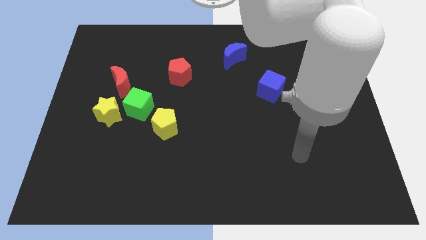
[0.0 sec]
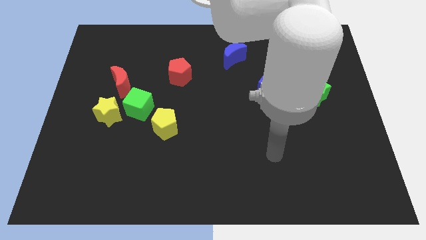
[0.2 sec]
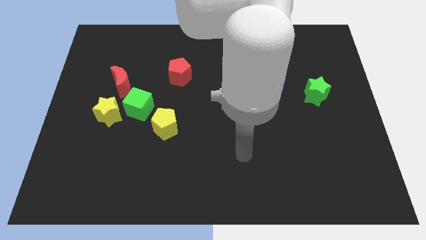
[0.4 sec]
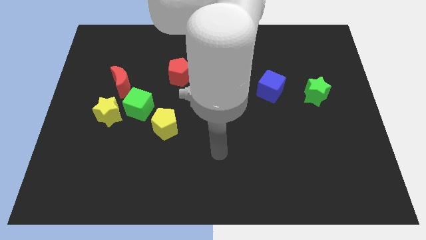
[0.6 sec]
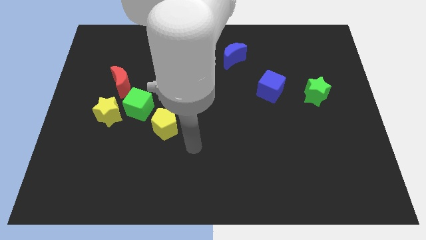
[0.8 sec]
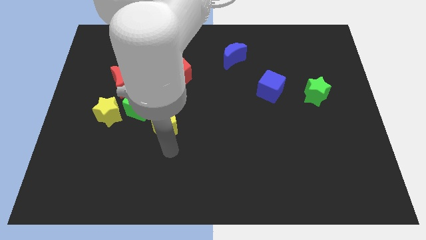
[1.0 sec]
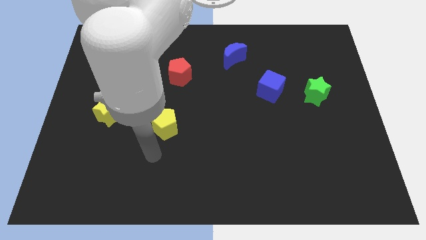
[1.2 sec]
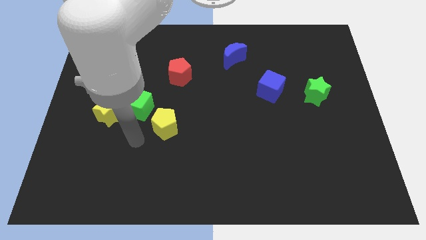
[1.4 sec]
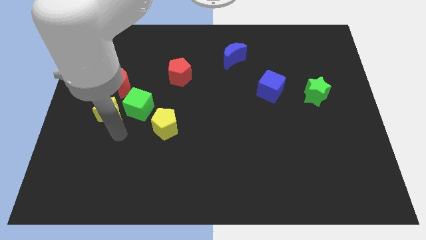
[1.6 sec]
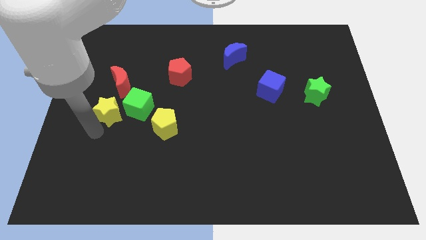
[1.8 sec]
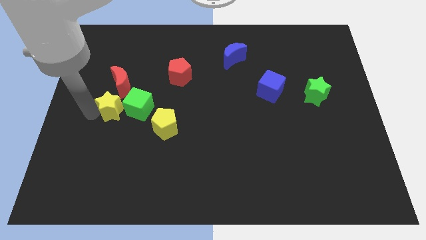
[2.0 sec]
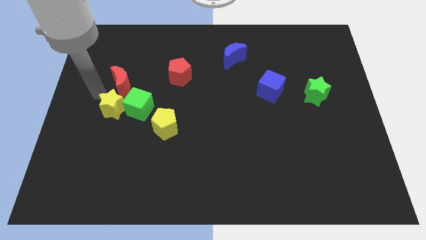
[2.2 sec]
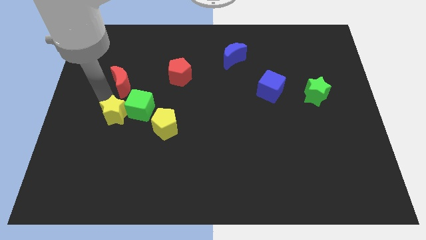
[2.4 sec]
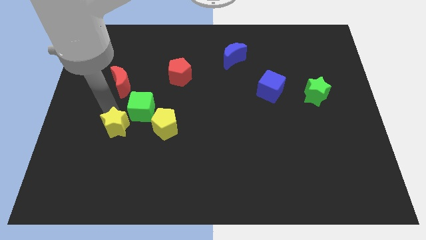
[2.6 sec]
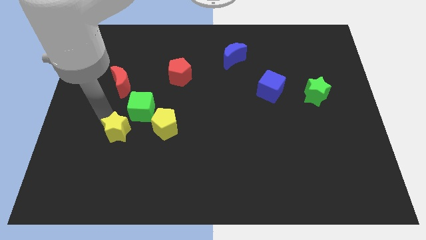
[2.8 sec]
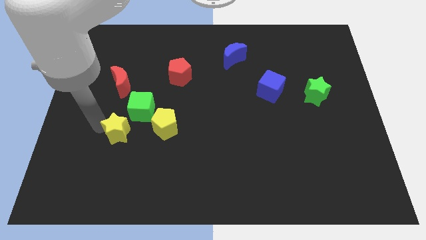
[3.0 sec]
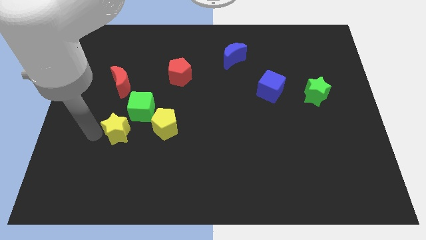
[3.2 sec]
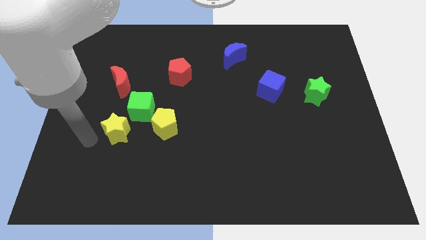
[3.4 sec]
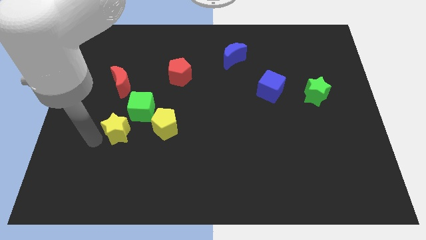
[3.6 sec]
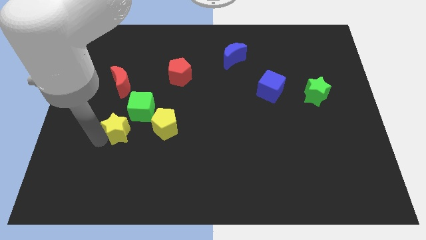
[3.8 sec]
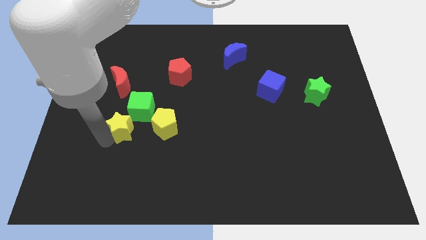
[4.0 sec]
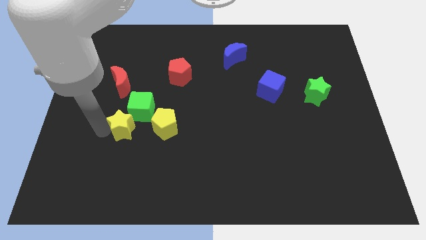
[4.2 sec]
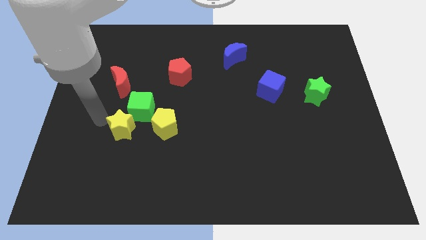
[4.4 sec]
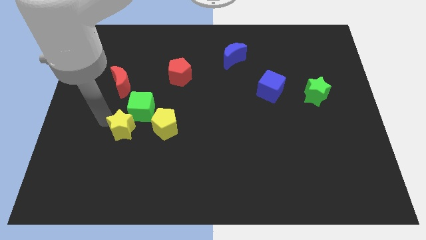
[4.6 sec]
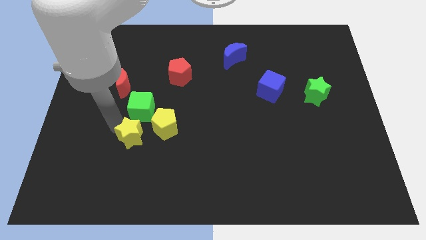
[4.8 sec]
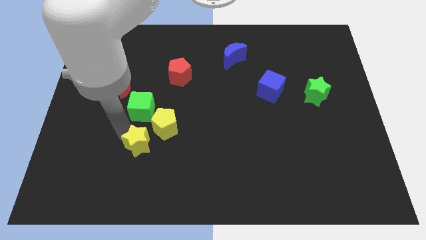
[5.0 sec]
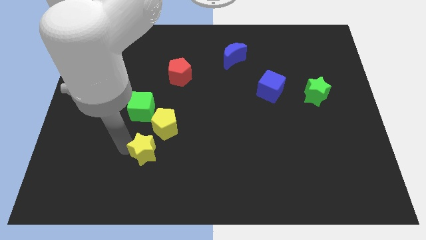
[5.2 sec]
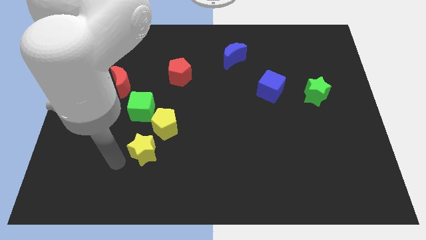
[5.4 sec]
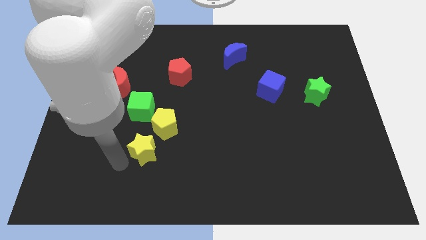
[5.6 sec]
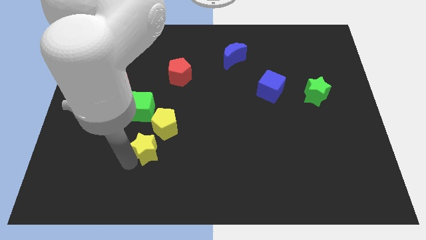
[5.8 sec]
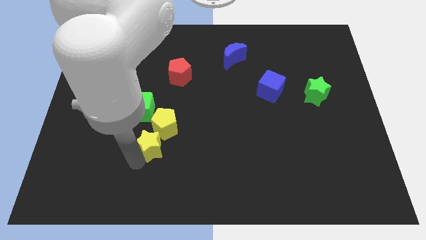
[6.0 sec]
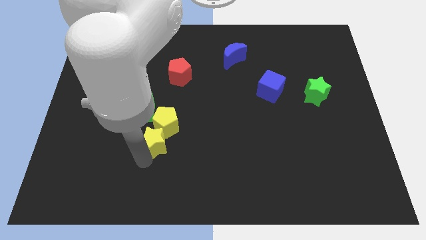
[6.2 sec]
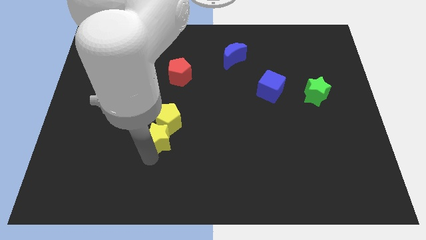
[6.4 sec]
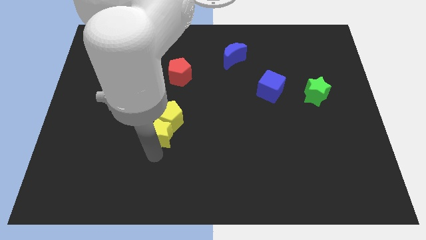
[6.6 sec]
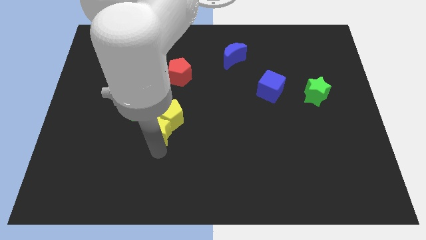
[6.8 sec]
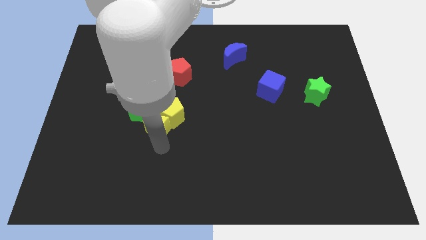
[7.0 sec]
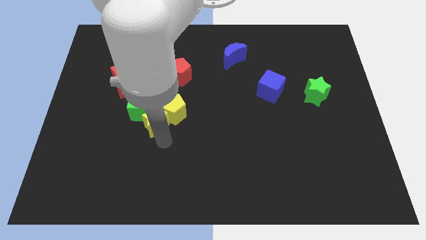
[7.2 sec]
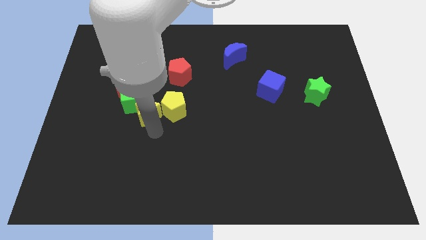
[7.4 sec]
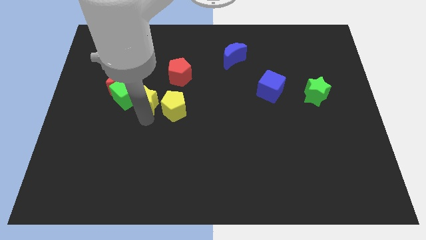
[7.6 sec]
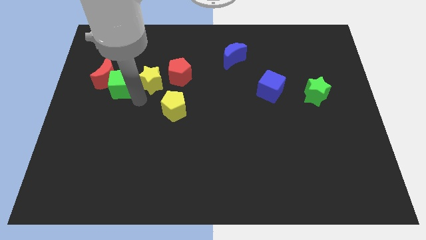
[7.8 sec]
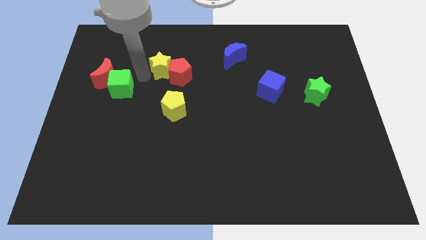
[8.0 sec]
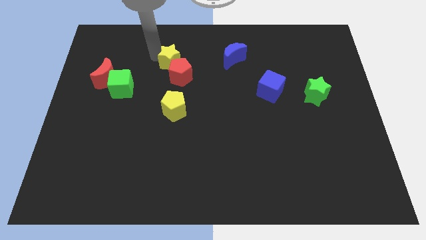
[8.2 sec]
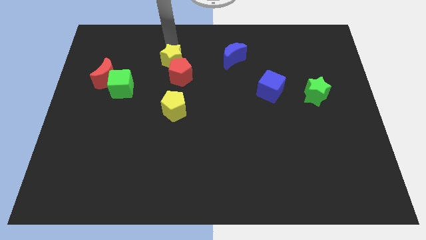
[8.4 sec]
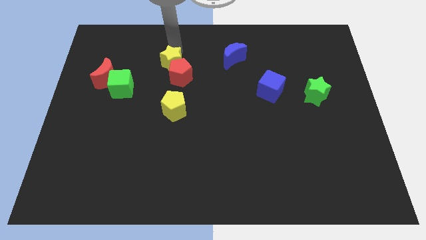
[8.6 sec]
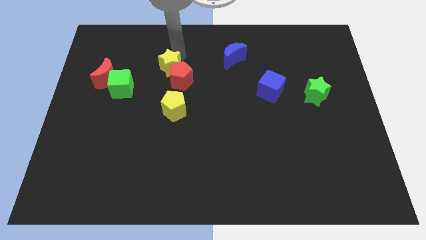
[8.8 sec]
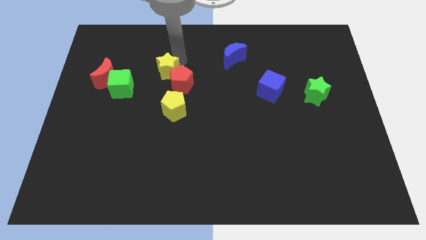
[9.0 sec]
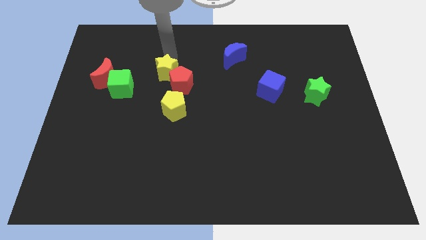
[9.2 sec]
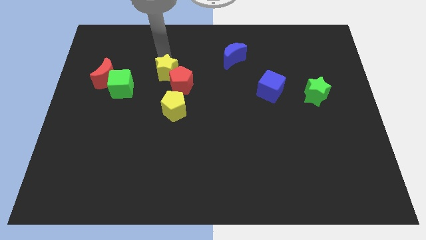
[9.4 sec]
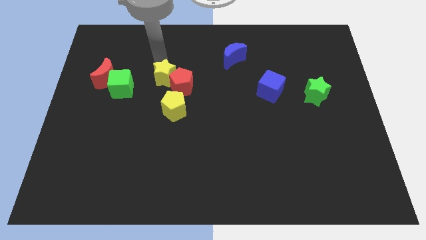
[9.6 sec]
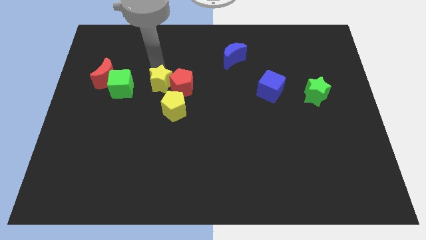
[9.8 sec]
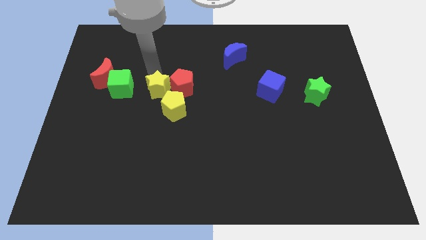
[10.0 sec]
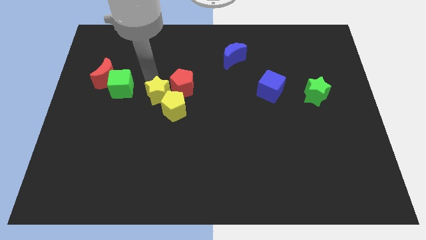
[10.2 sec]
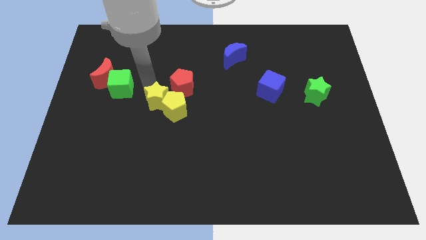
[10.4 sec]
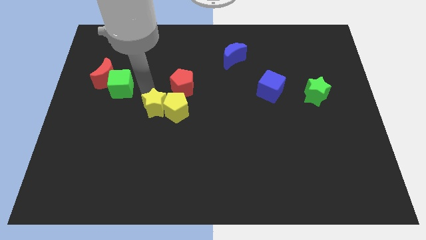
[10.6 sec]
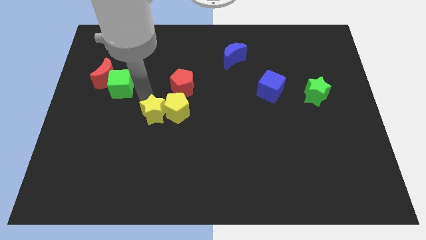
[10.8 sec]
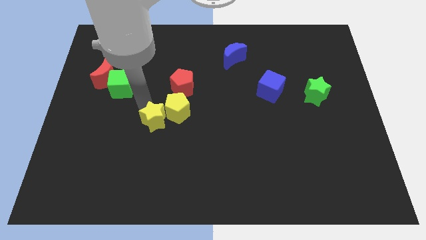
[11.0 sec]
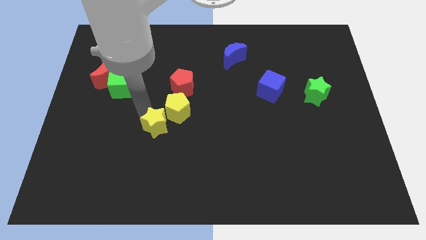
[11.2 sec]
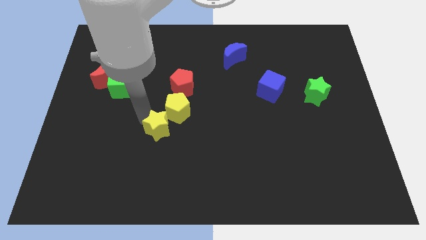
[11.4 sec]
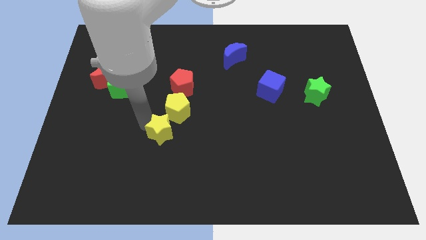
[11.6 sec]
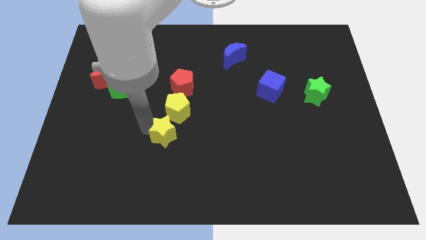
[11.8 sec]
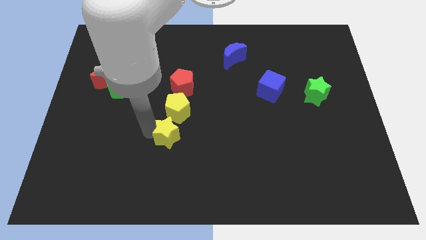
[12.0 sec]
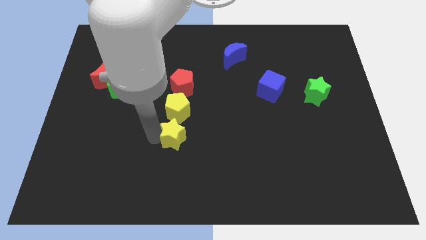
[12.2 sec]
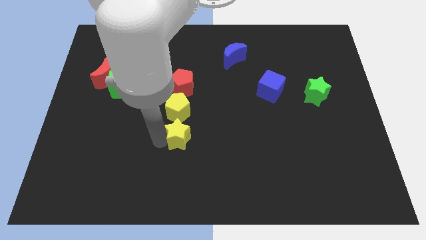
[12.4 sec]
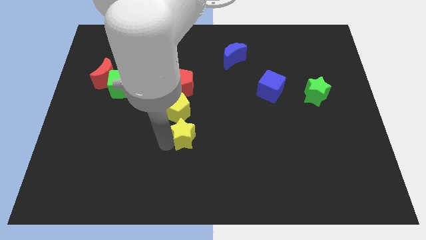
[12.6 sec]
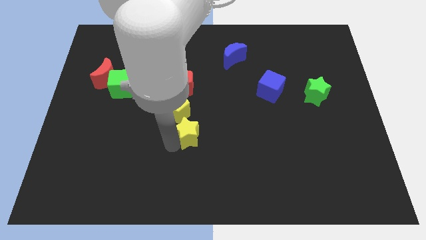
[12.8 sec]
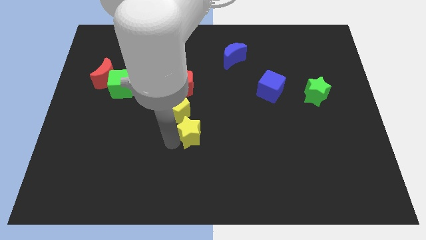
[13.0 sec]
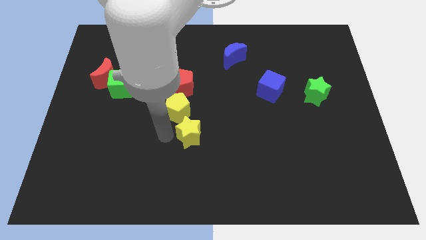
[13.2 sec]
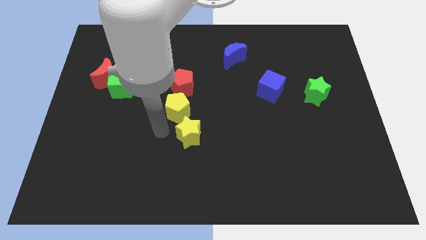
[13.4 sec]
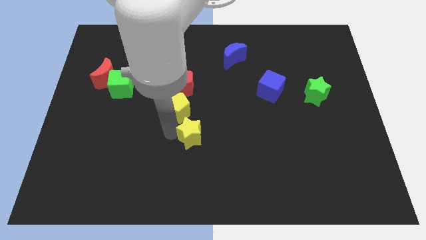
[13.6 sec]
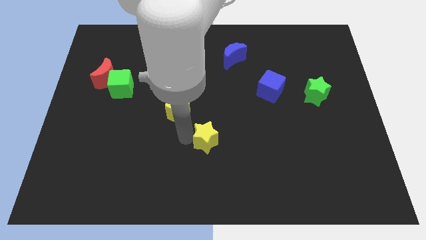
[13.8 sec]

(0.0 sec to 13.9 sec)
push the yellow star right

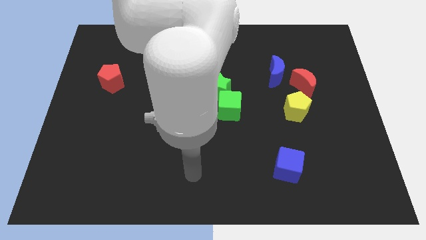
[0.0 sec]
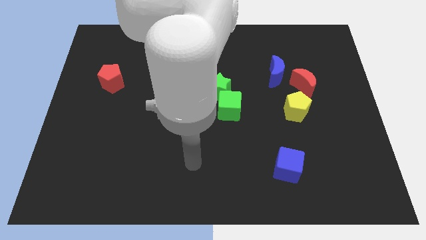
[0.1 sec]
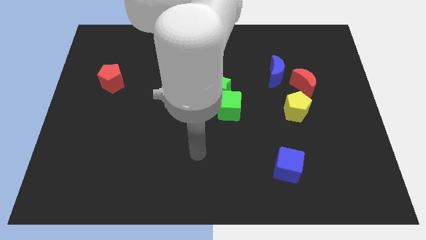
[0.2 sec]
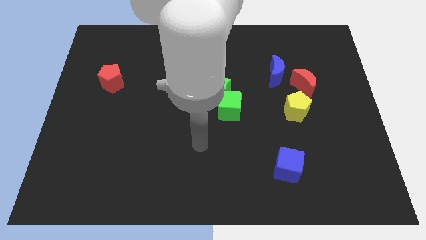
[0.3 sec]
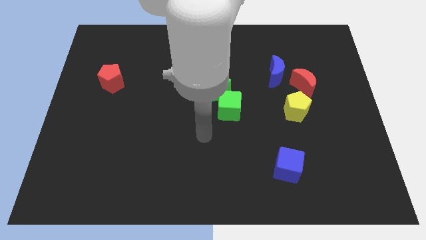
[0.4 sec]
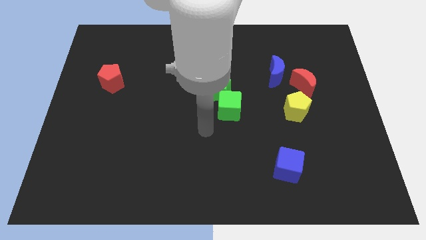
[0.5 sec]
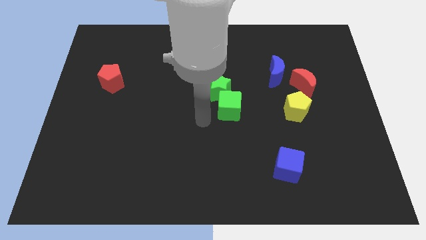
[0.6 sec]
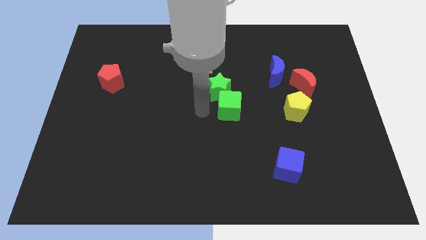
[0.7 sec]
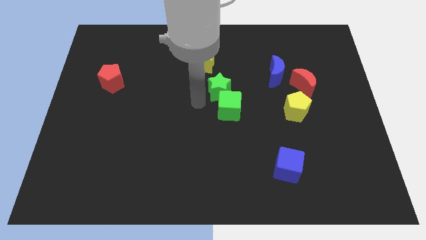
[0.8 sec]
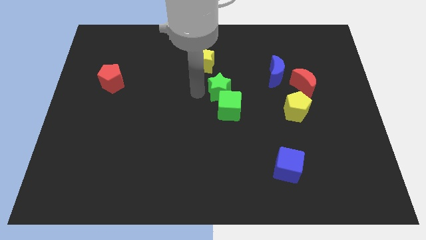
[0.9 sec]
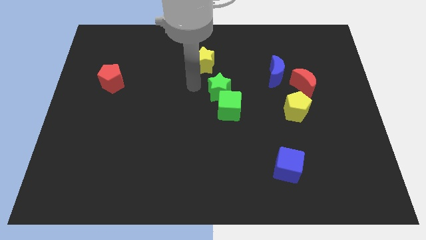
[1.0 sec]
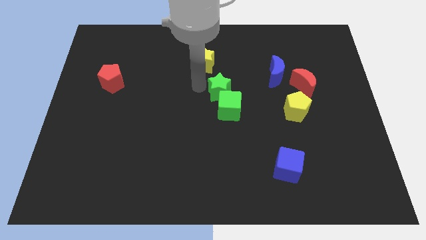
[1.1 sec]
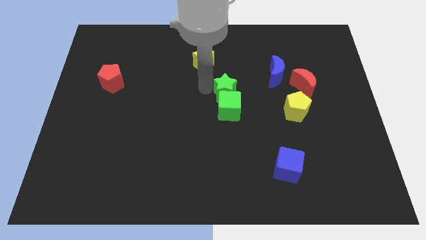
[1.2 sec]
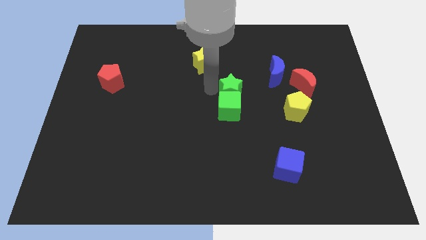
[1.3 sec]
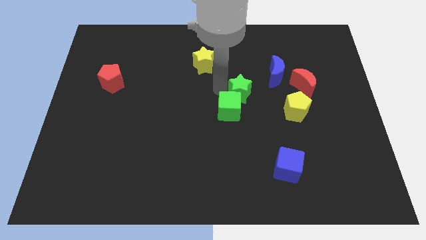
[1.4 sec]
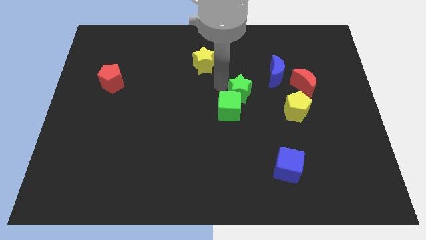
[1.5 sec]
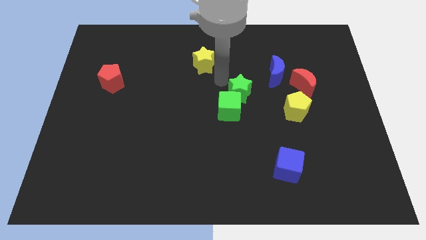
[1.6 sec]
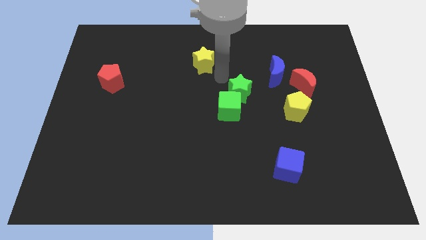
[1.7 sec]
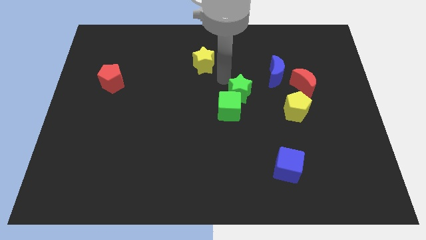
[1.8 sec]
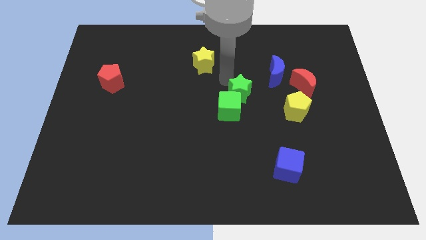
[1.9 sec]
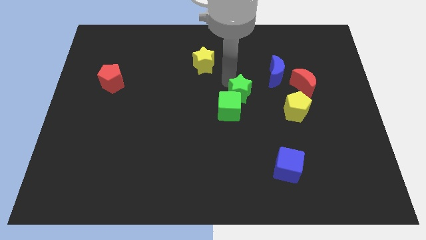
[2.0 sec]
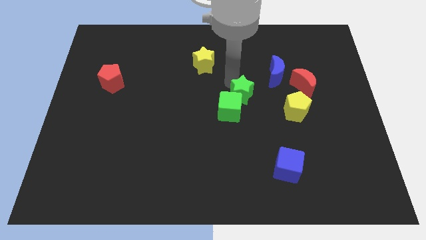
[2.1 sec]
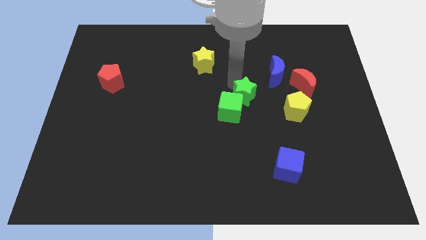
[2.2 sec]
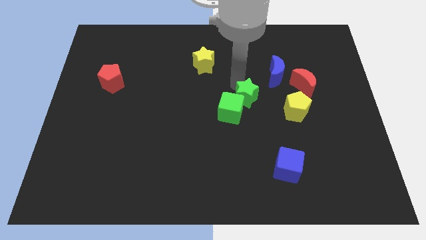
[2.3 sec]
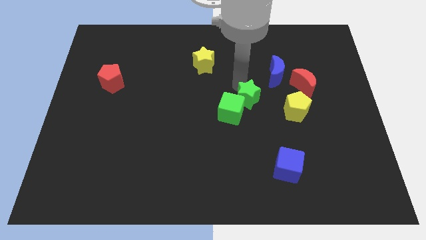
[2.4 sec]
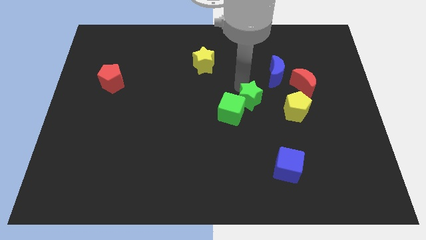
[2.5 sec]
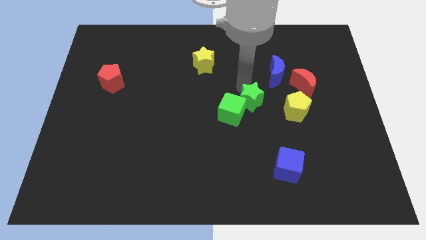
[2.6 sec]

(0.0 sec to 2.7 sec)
push the green star down and to the right diagonally a bit
